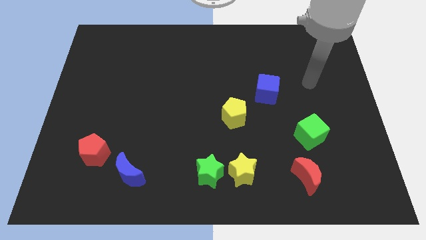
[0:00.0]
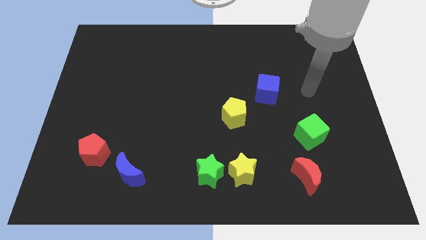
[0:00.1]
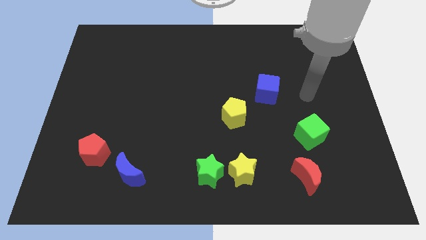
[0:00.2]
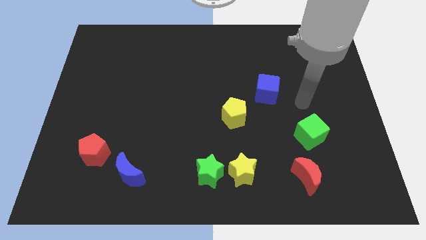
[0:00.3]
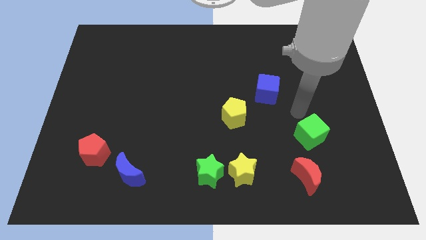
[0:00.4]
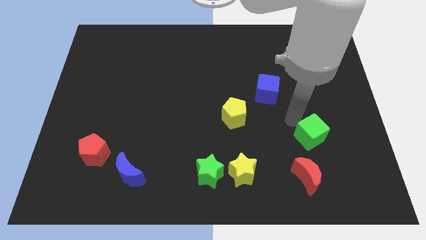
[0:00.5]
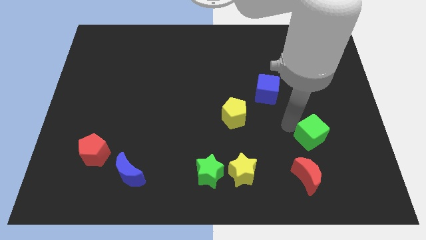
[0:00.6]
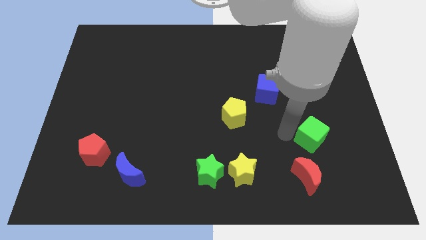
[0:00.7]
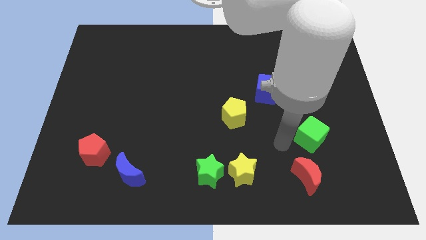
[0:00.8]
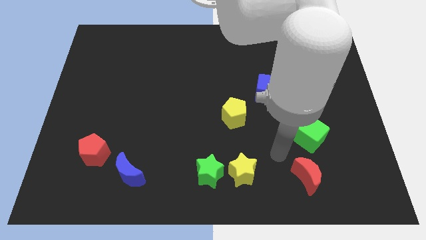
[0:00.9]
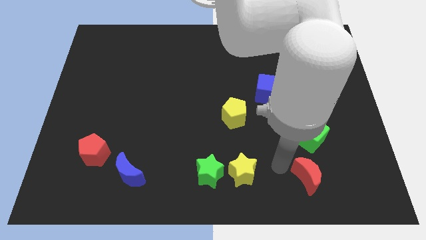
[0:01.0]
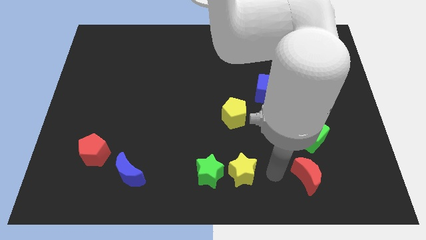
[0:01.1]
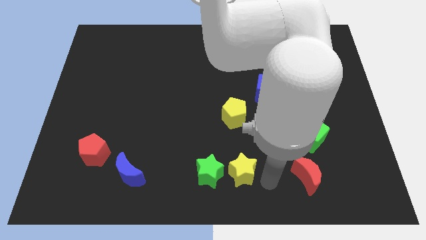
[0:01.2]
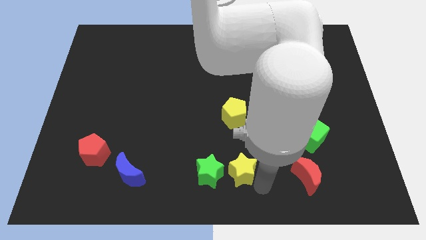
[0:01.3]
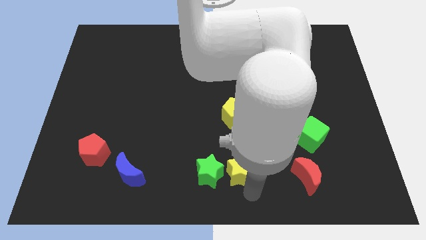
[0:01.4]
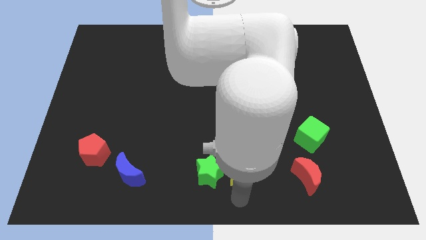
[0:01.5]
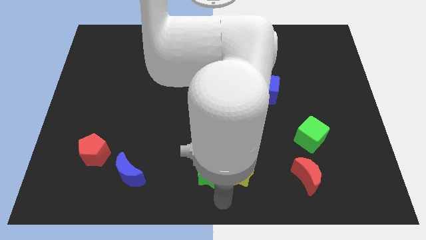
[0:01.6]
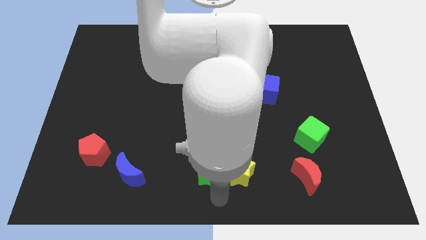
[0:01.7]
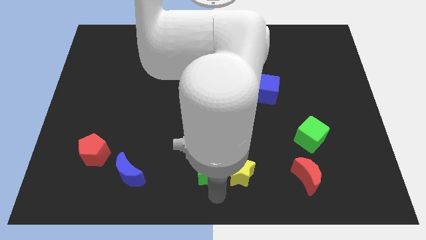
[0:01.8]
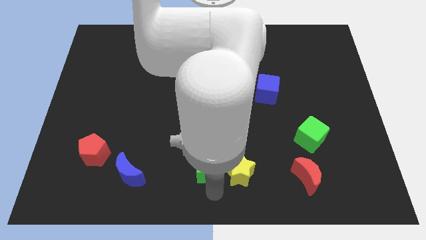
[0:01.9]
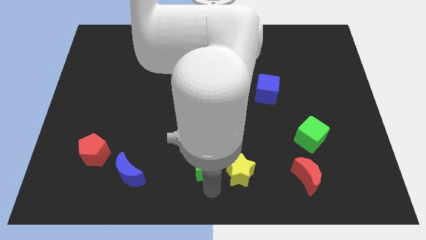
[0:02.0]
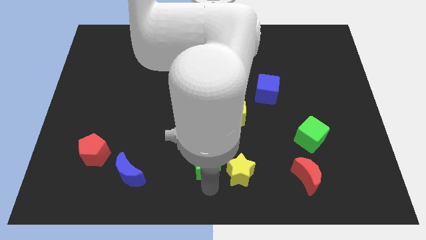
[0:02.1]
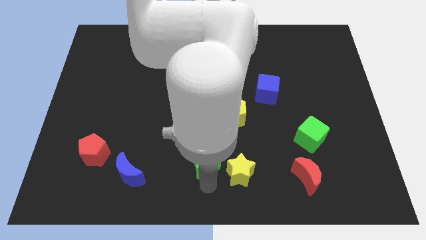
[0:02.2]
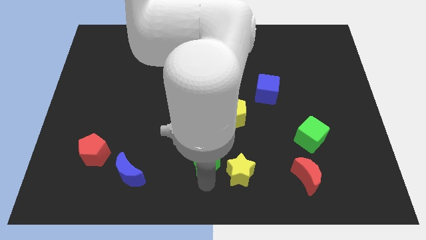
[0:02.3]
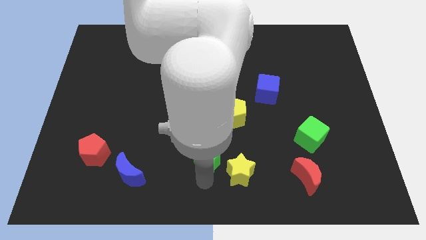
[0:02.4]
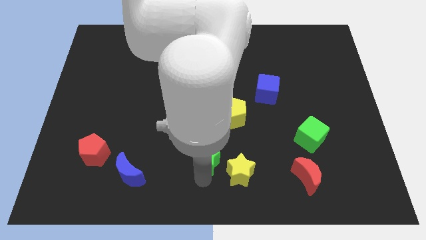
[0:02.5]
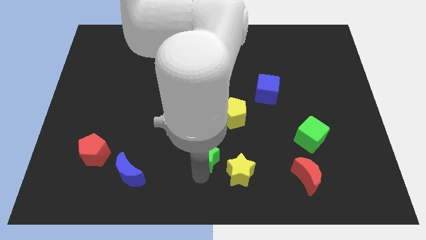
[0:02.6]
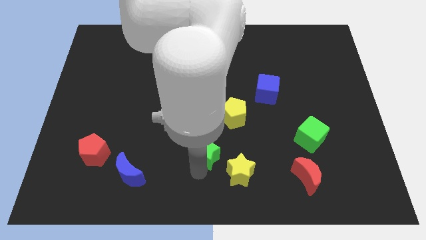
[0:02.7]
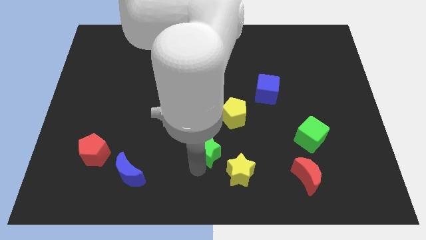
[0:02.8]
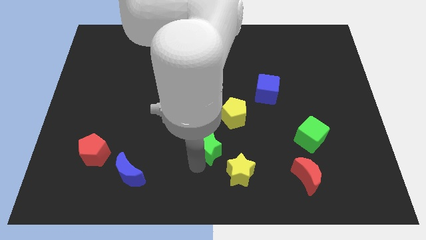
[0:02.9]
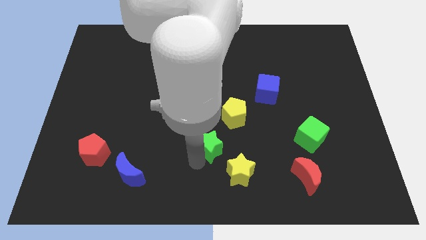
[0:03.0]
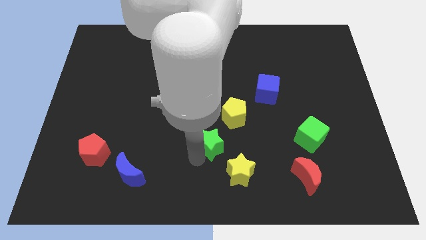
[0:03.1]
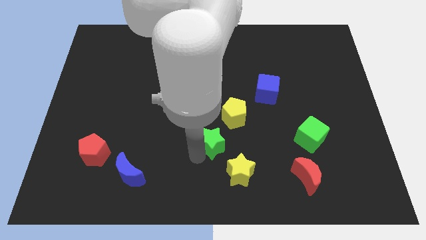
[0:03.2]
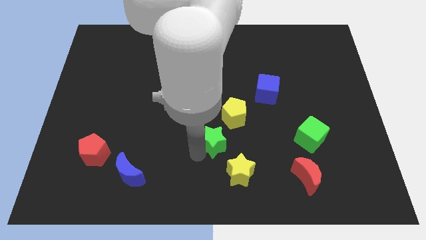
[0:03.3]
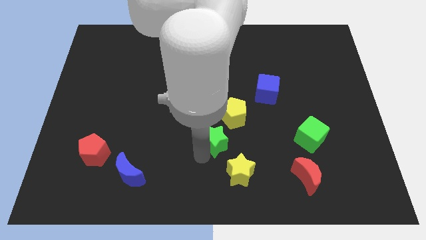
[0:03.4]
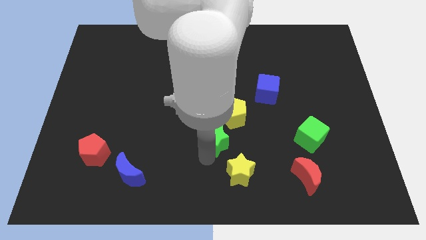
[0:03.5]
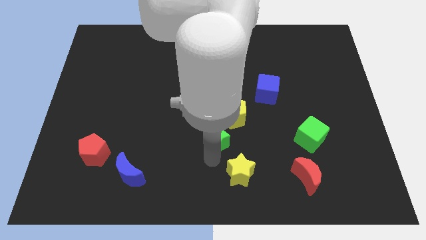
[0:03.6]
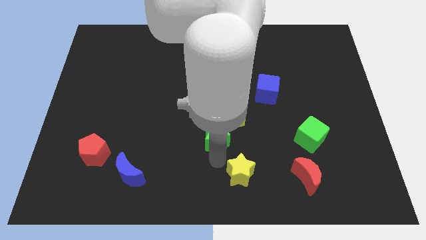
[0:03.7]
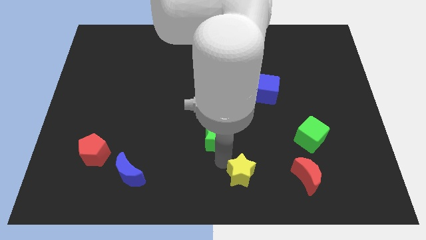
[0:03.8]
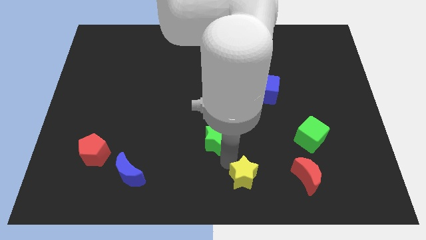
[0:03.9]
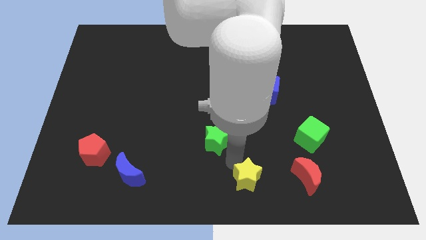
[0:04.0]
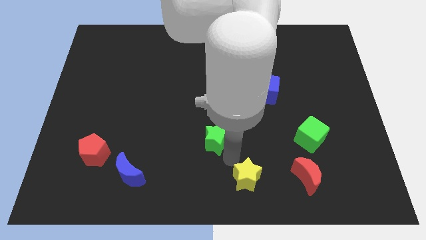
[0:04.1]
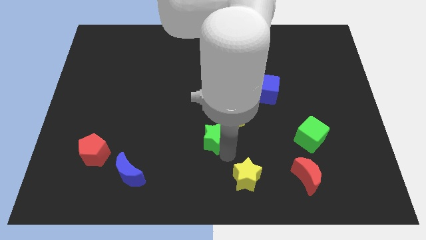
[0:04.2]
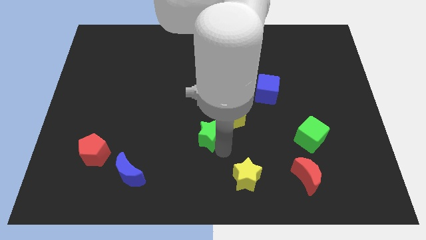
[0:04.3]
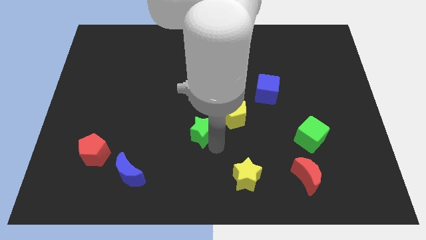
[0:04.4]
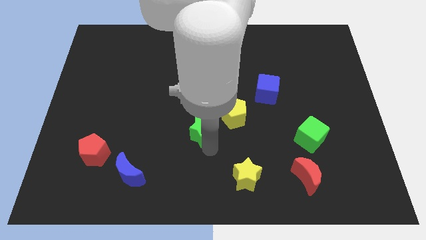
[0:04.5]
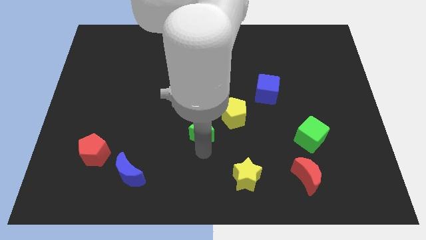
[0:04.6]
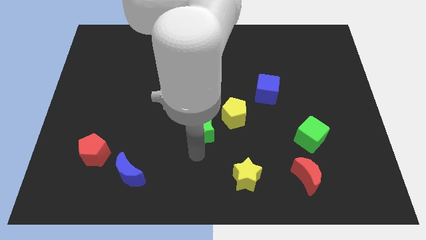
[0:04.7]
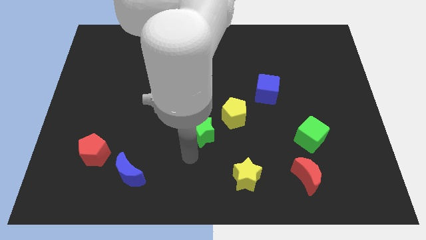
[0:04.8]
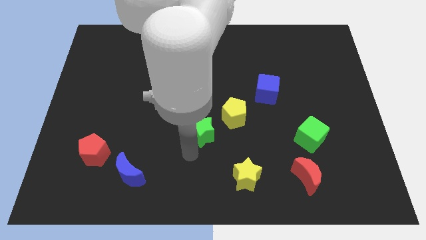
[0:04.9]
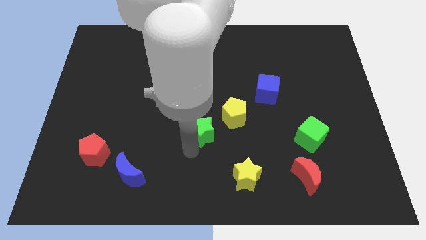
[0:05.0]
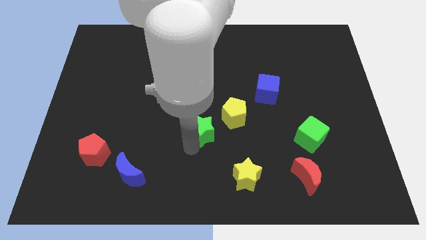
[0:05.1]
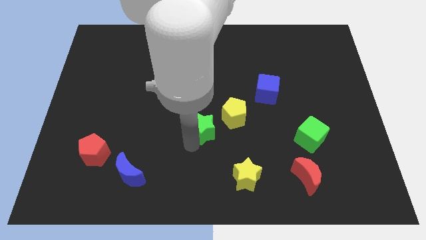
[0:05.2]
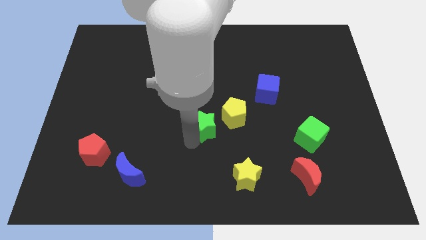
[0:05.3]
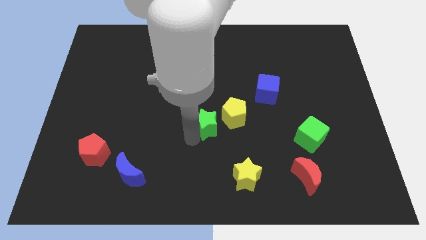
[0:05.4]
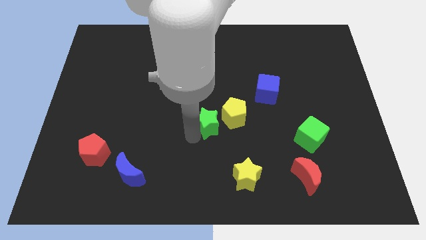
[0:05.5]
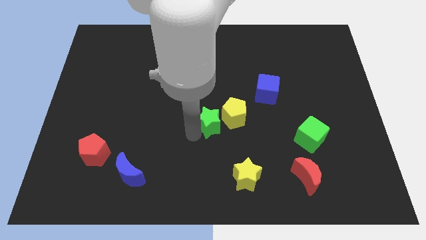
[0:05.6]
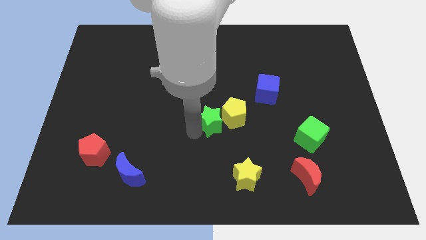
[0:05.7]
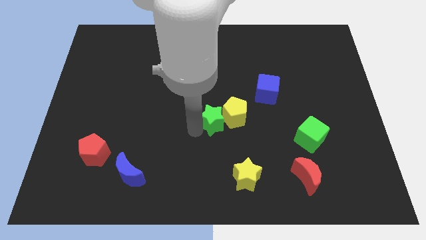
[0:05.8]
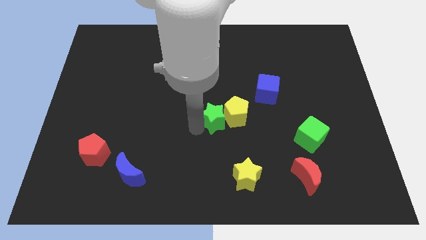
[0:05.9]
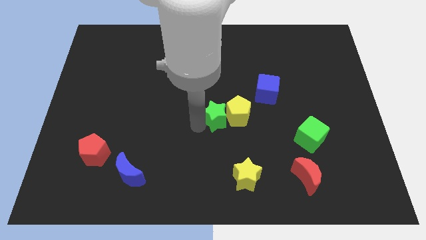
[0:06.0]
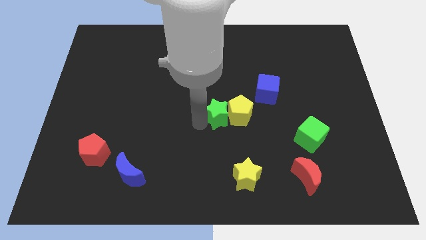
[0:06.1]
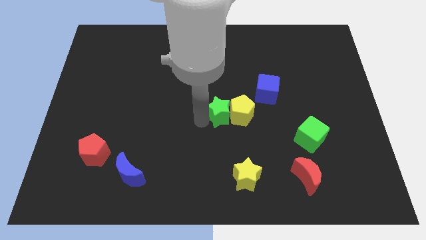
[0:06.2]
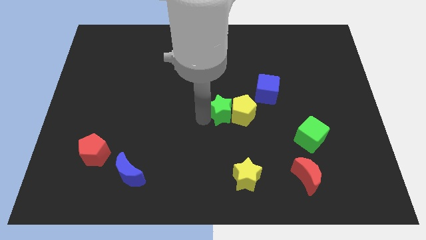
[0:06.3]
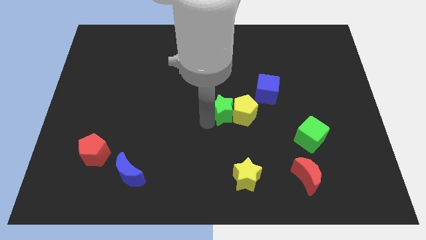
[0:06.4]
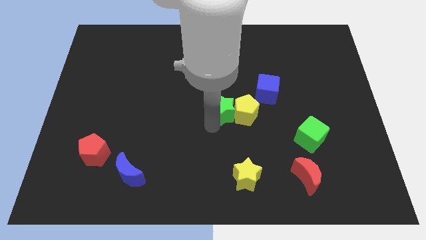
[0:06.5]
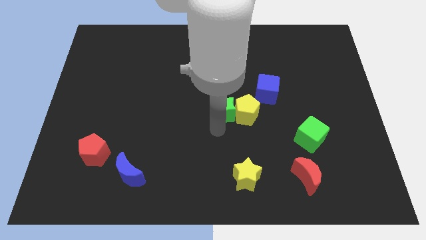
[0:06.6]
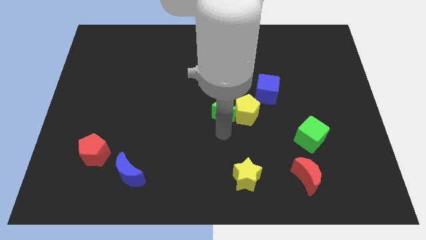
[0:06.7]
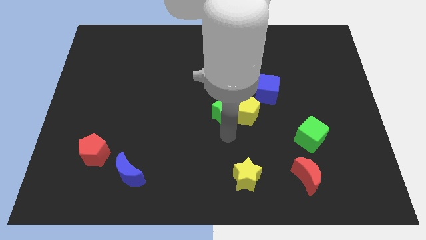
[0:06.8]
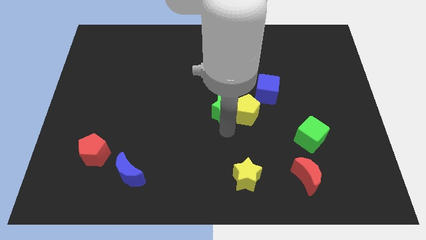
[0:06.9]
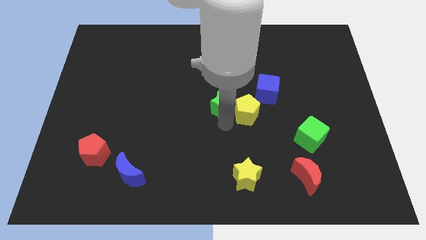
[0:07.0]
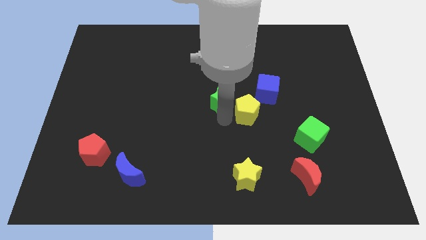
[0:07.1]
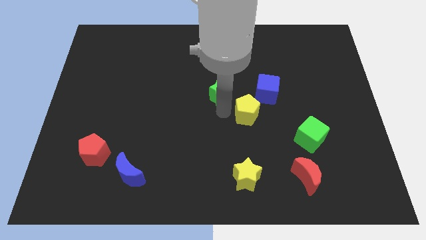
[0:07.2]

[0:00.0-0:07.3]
push the green star up

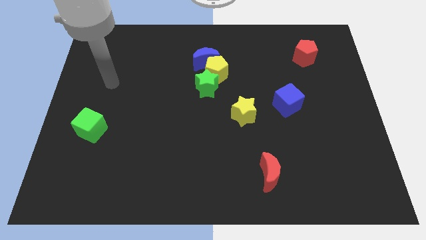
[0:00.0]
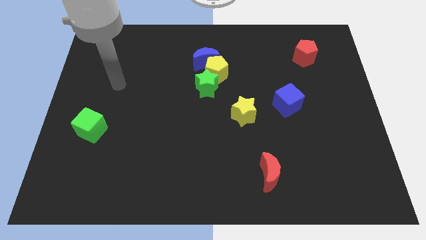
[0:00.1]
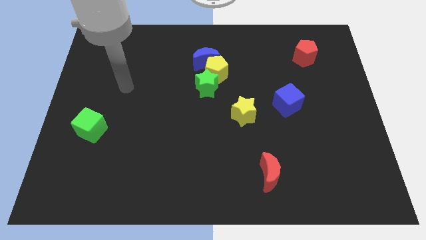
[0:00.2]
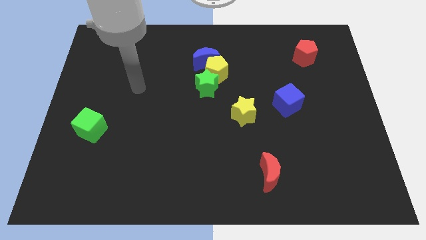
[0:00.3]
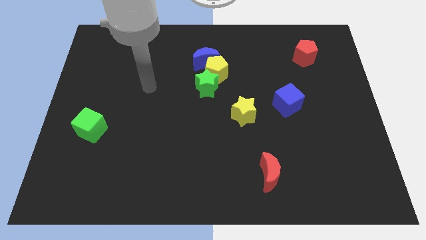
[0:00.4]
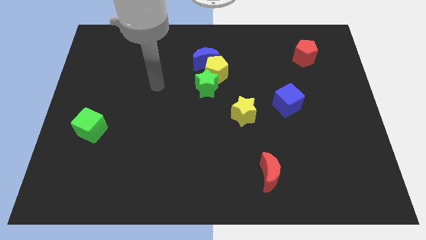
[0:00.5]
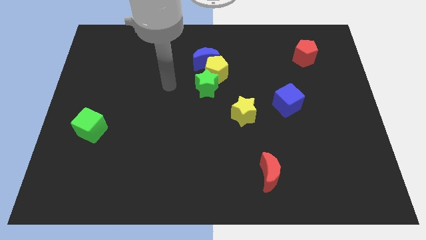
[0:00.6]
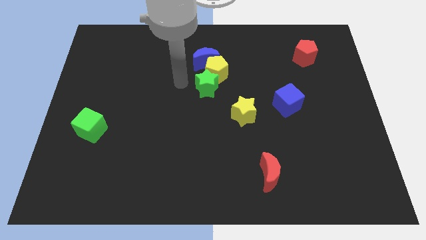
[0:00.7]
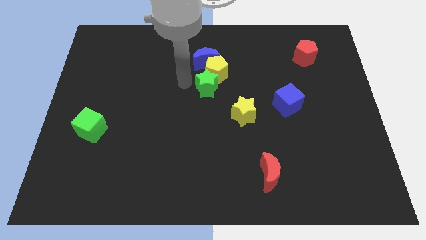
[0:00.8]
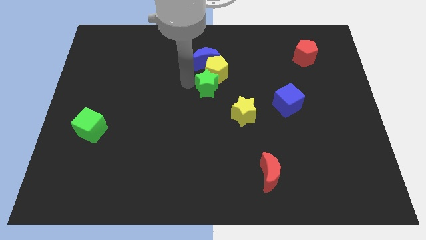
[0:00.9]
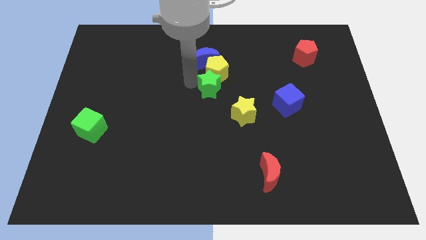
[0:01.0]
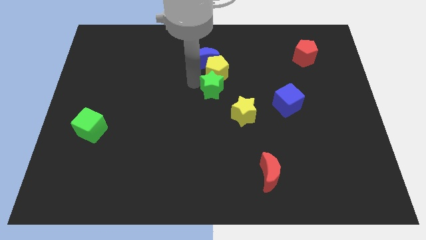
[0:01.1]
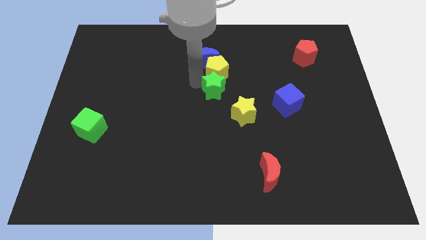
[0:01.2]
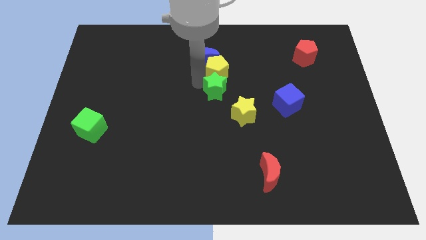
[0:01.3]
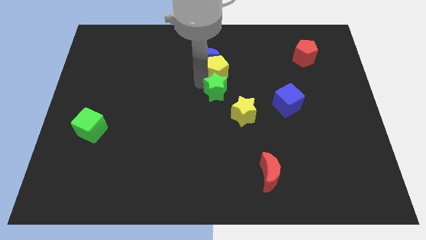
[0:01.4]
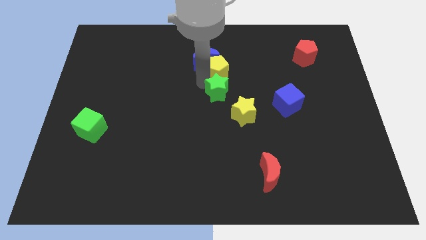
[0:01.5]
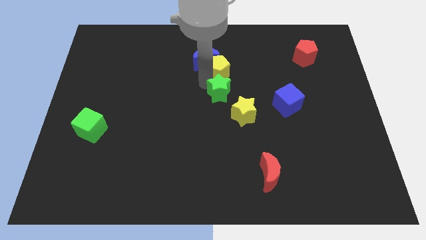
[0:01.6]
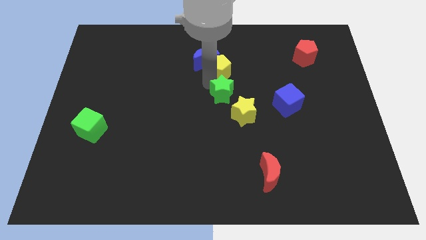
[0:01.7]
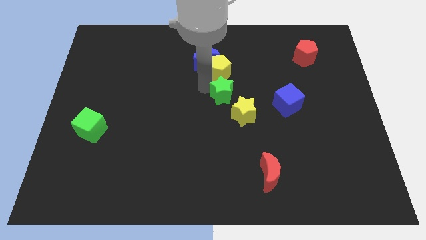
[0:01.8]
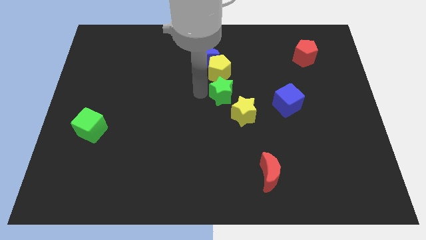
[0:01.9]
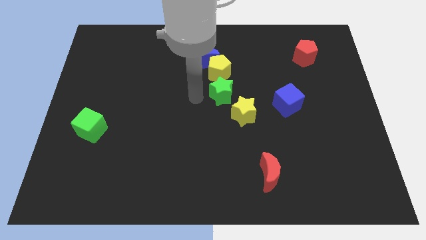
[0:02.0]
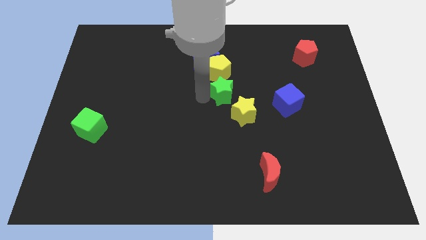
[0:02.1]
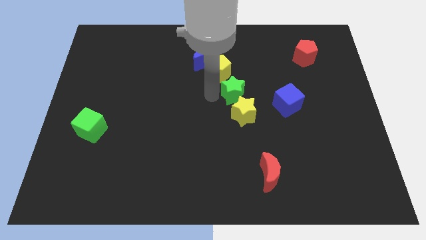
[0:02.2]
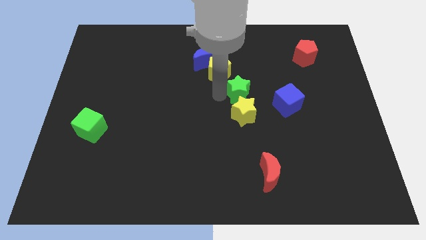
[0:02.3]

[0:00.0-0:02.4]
slightly move the green star right
